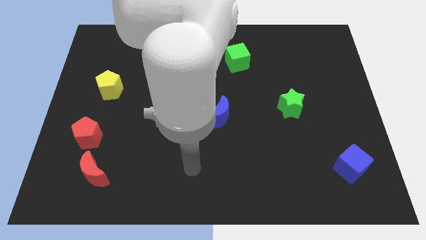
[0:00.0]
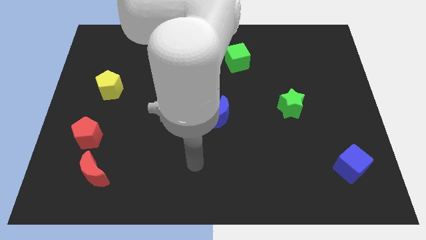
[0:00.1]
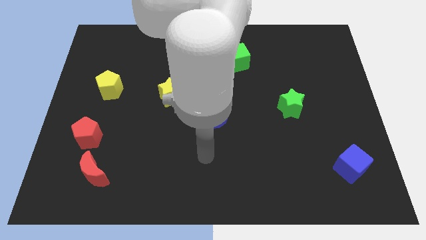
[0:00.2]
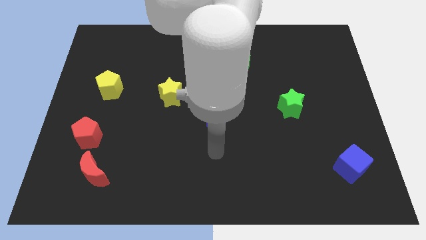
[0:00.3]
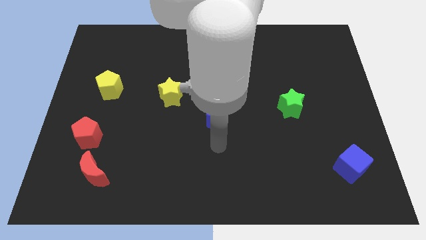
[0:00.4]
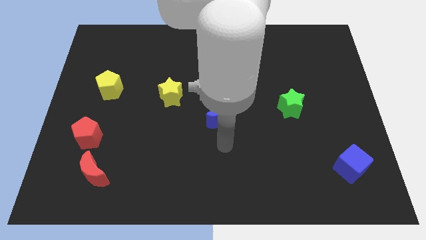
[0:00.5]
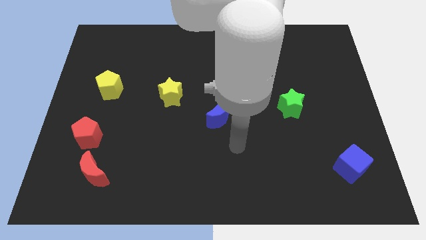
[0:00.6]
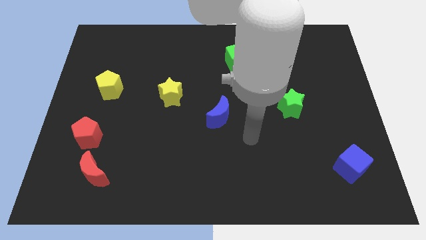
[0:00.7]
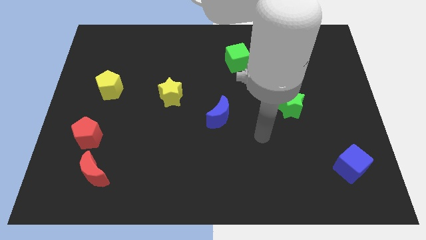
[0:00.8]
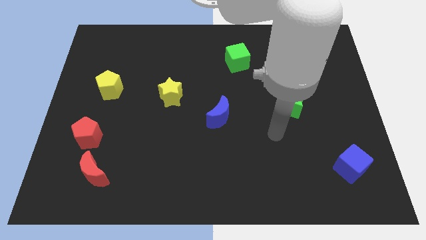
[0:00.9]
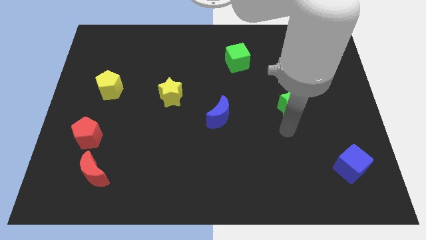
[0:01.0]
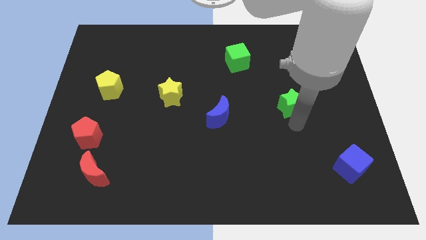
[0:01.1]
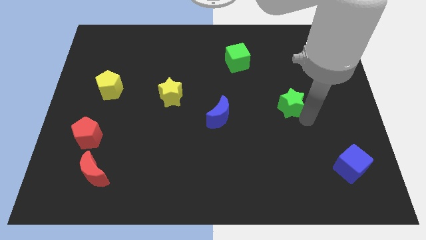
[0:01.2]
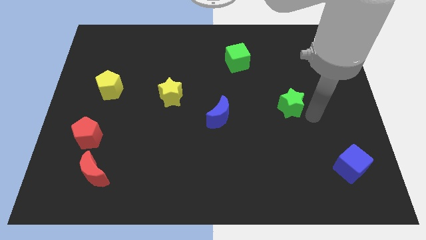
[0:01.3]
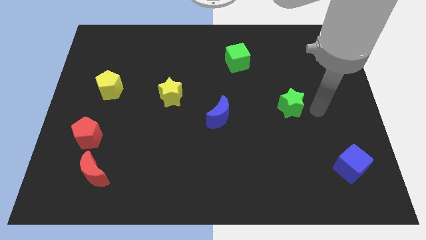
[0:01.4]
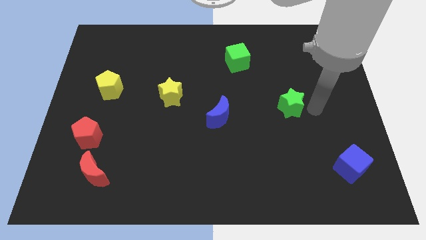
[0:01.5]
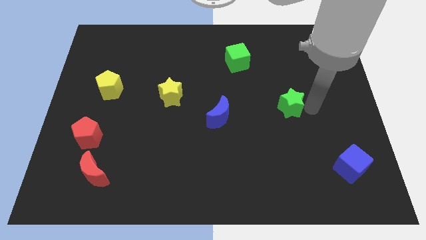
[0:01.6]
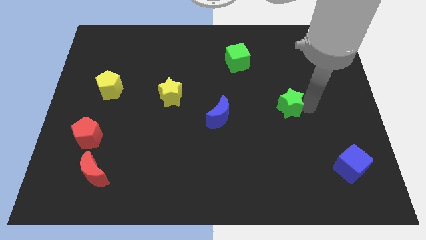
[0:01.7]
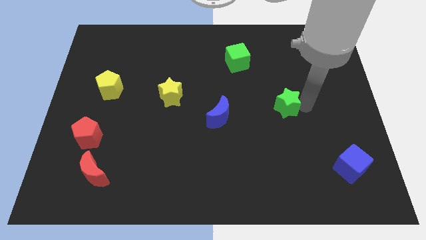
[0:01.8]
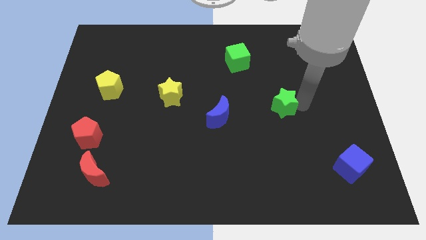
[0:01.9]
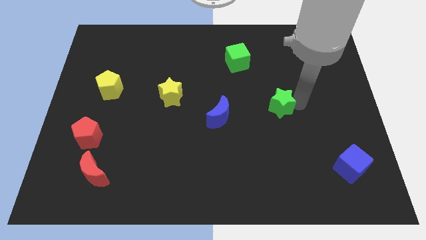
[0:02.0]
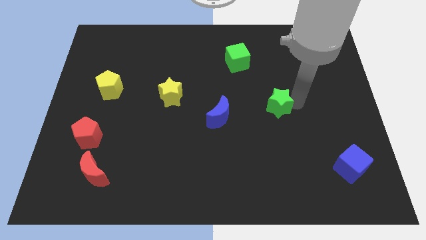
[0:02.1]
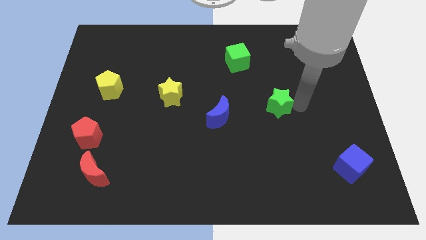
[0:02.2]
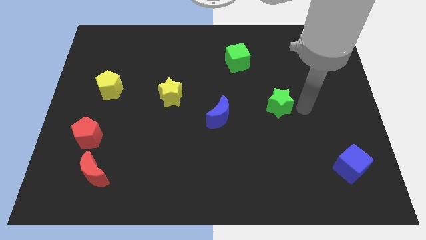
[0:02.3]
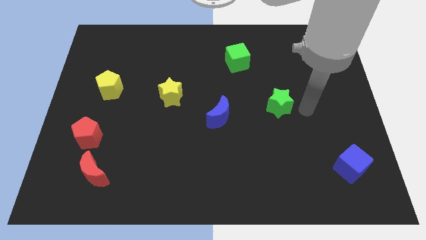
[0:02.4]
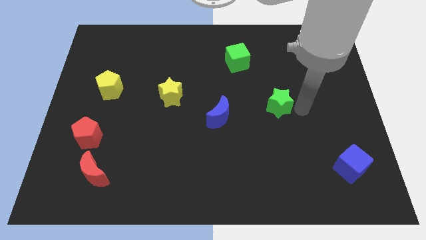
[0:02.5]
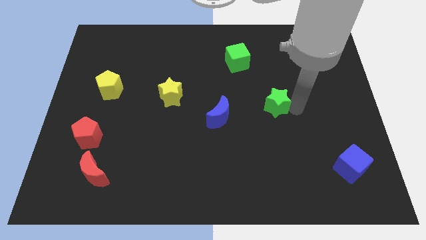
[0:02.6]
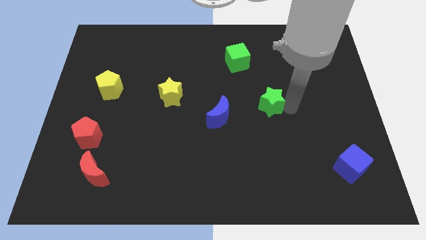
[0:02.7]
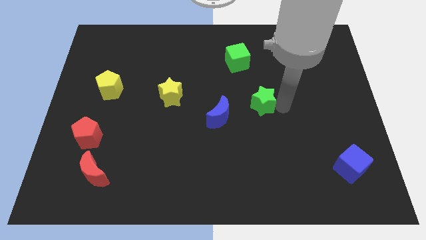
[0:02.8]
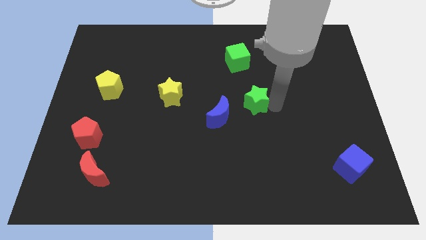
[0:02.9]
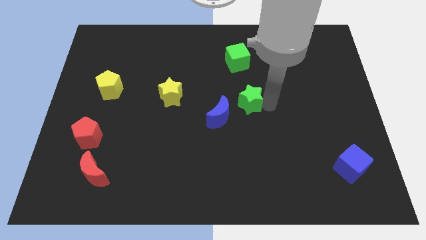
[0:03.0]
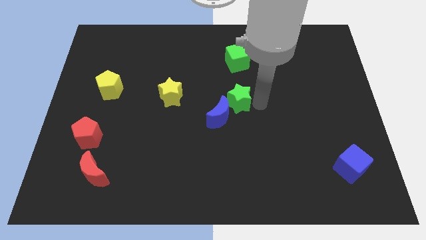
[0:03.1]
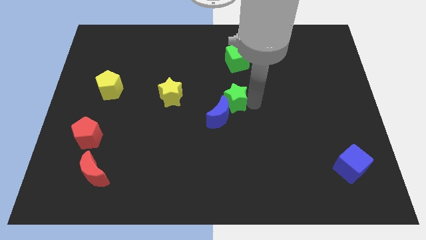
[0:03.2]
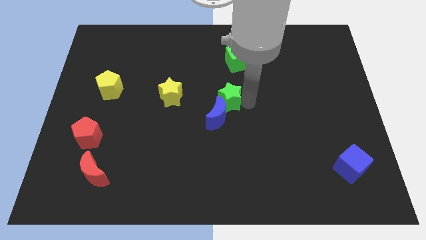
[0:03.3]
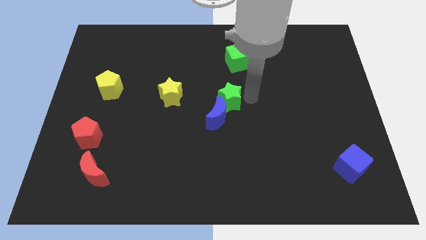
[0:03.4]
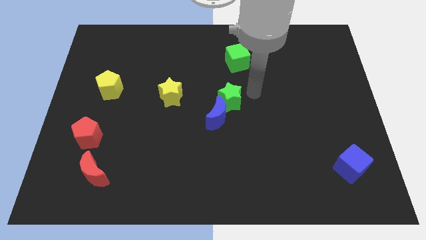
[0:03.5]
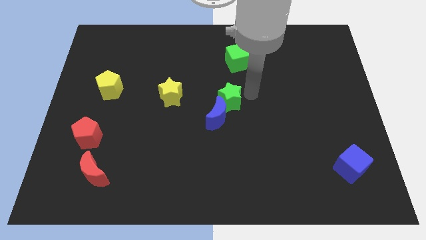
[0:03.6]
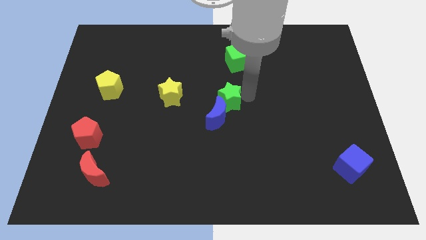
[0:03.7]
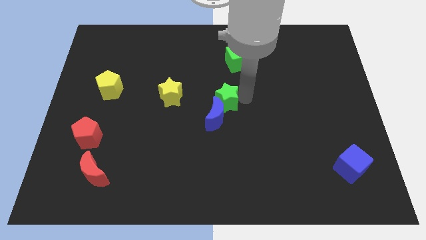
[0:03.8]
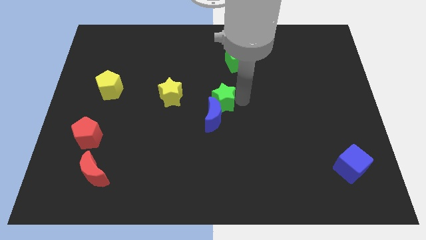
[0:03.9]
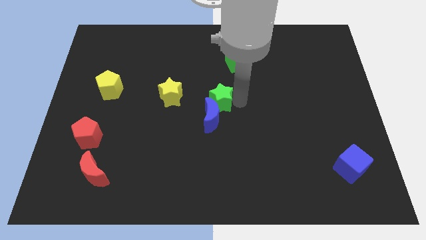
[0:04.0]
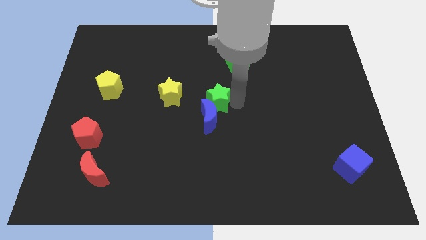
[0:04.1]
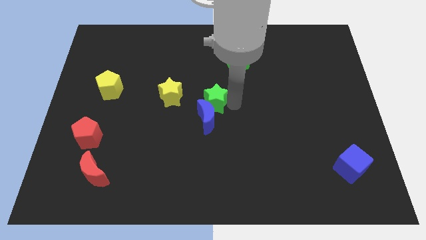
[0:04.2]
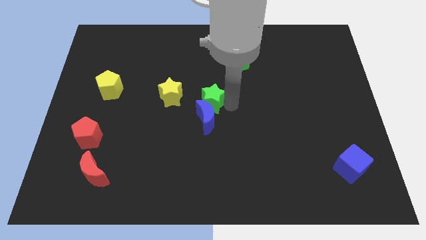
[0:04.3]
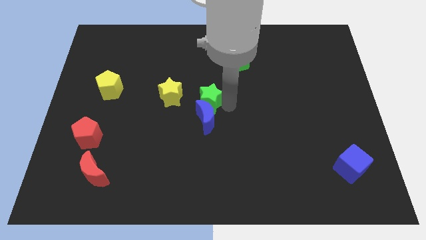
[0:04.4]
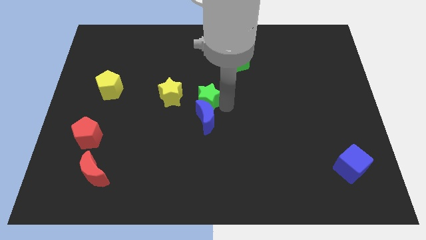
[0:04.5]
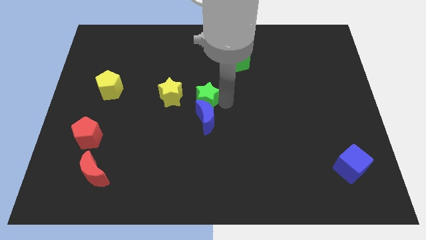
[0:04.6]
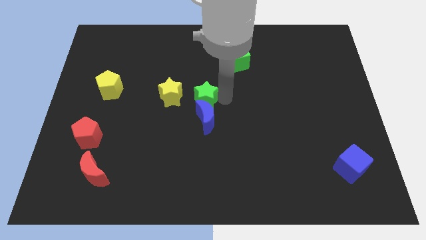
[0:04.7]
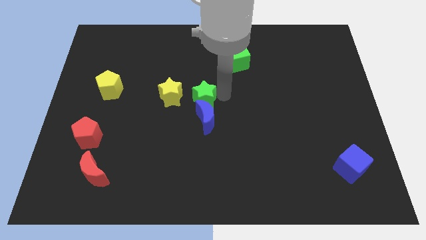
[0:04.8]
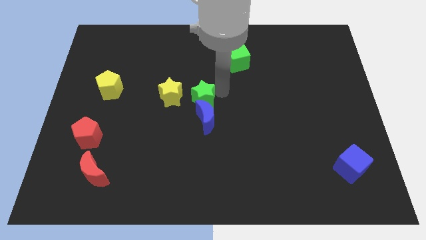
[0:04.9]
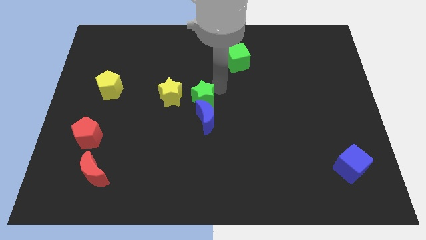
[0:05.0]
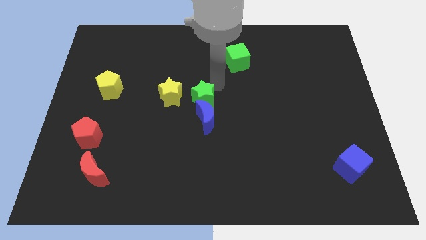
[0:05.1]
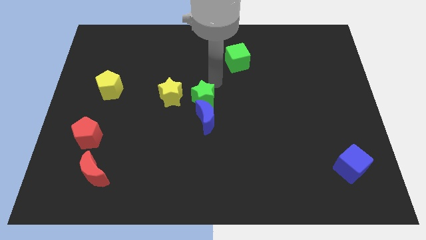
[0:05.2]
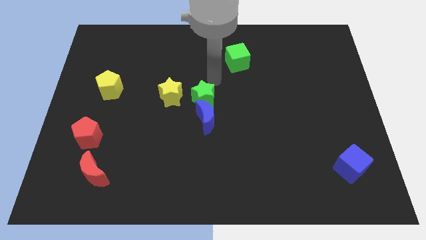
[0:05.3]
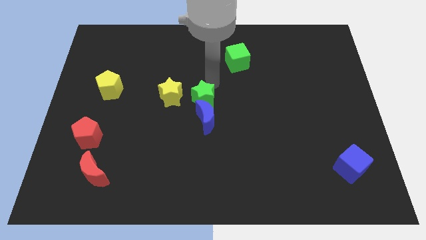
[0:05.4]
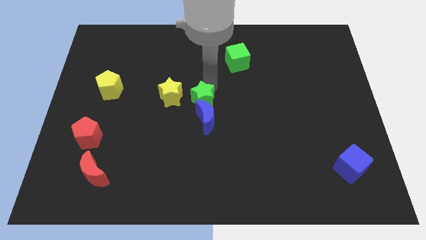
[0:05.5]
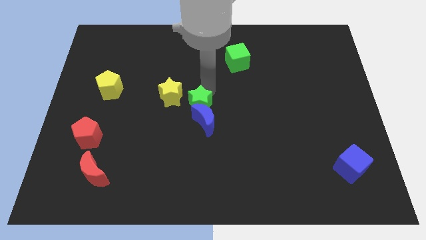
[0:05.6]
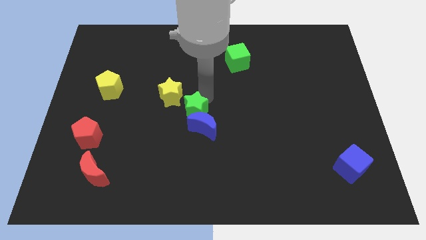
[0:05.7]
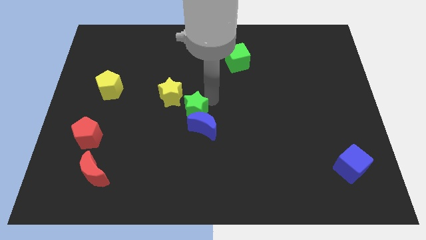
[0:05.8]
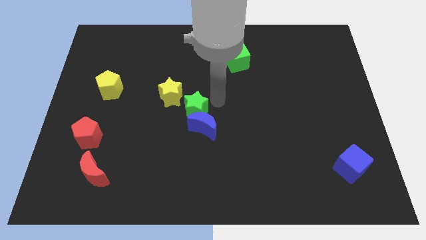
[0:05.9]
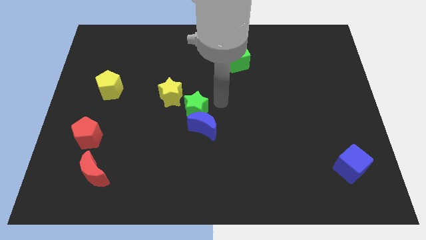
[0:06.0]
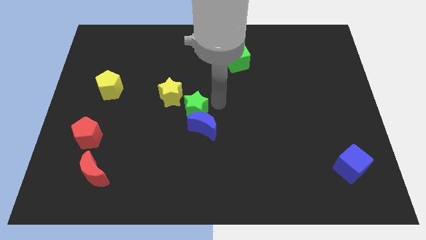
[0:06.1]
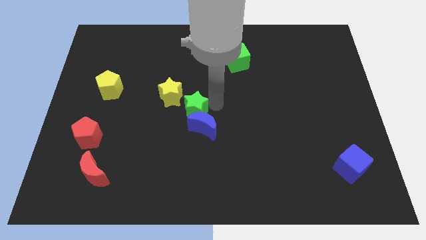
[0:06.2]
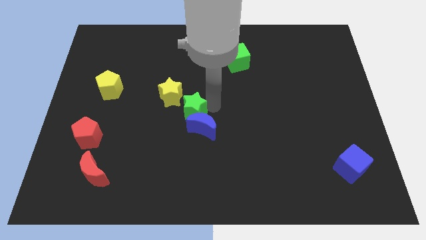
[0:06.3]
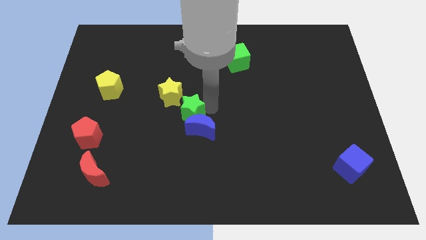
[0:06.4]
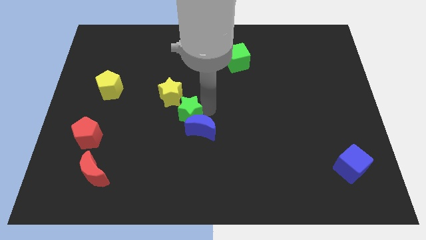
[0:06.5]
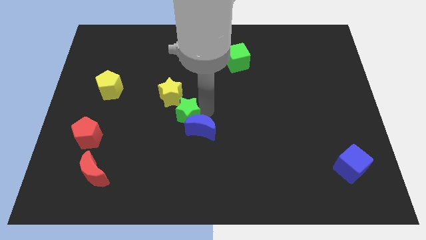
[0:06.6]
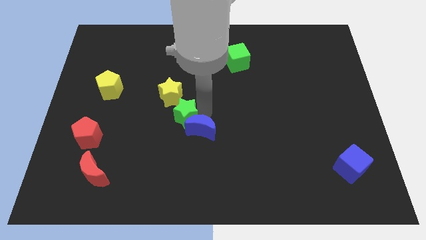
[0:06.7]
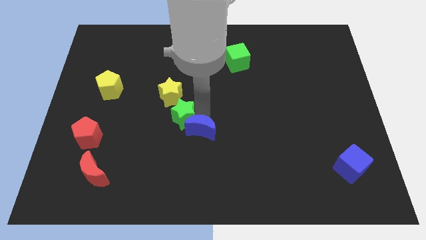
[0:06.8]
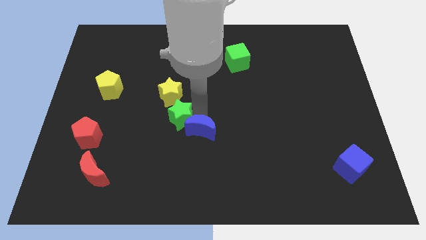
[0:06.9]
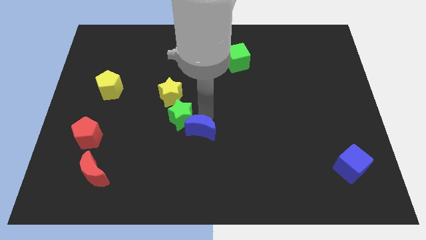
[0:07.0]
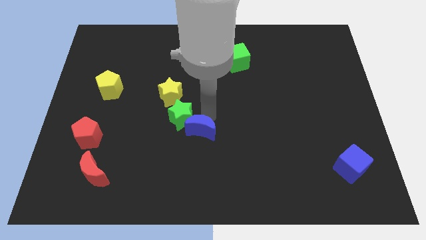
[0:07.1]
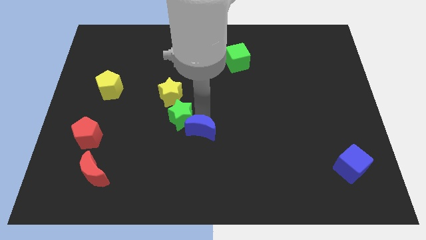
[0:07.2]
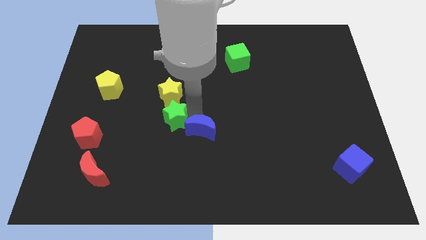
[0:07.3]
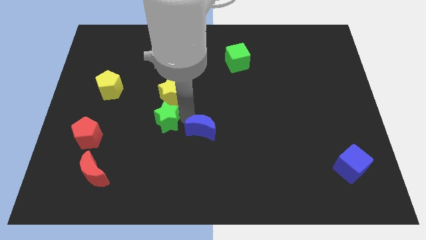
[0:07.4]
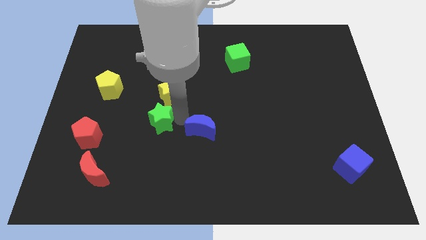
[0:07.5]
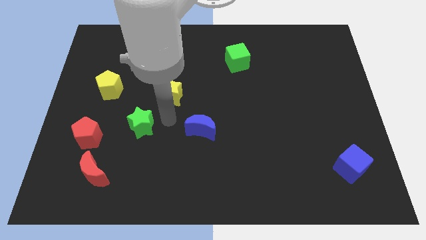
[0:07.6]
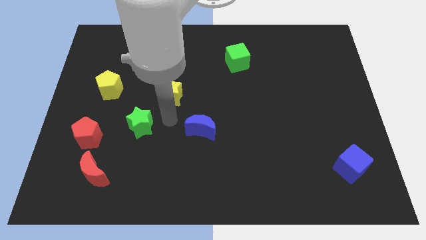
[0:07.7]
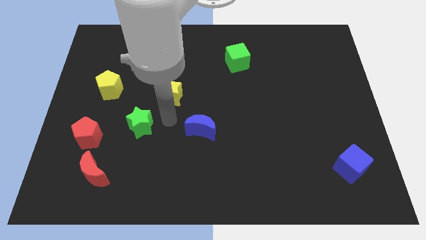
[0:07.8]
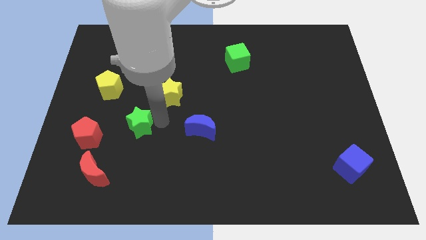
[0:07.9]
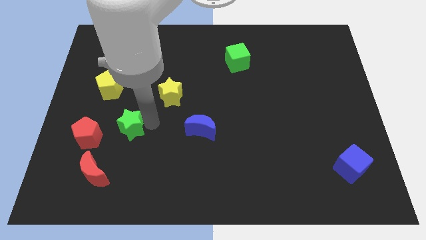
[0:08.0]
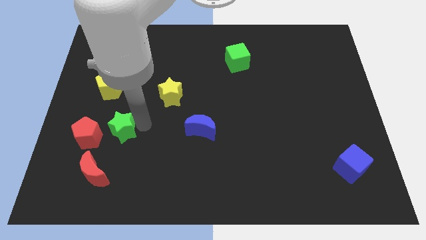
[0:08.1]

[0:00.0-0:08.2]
slide the green star above the red moon
